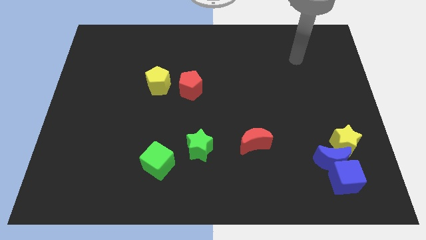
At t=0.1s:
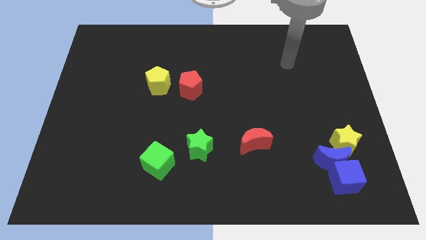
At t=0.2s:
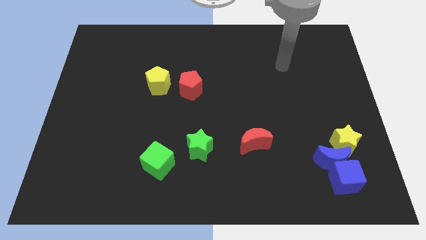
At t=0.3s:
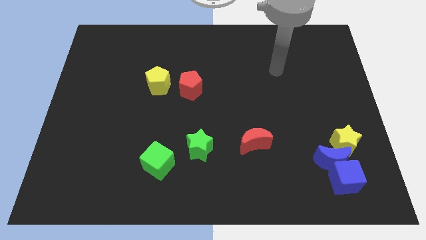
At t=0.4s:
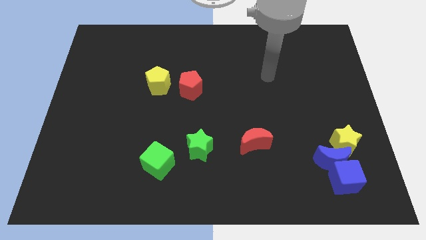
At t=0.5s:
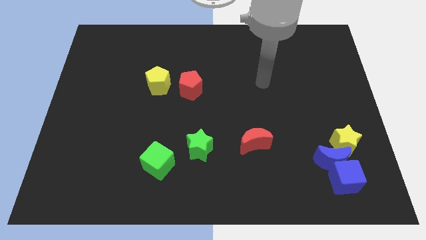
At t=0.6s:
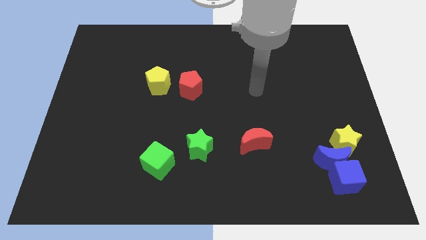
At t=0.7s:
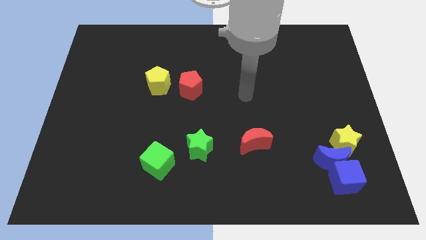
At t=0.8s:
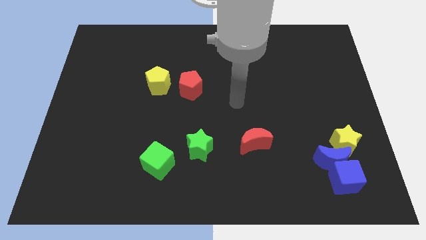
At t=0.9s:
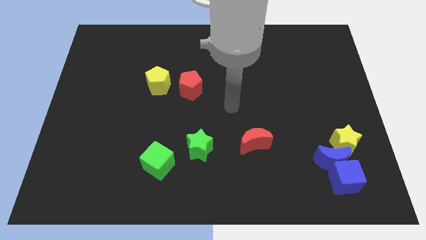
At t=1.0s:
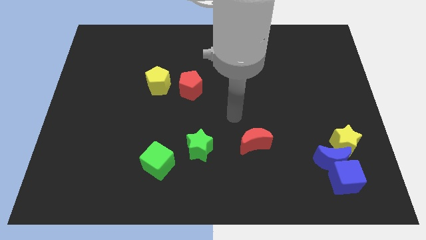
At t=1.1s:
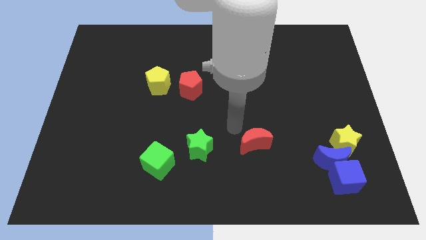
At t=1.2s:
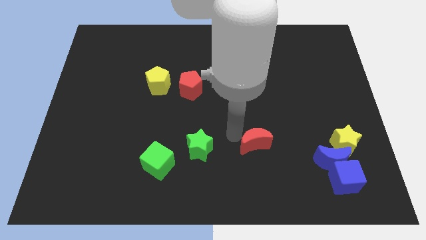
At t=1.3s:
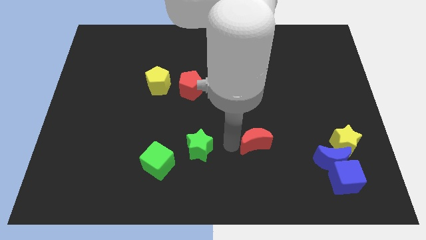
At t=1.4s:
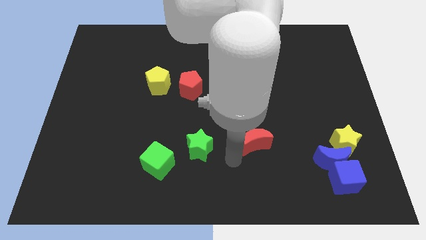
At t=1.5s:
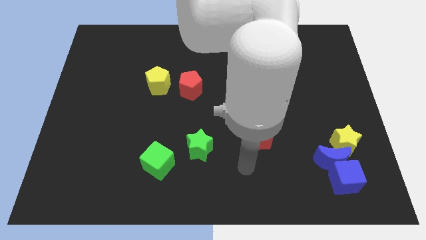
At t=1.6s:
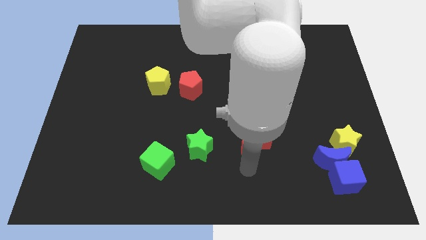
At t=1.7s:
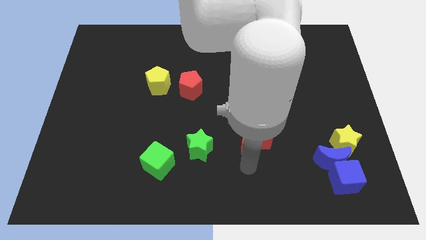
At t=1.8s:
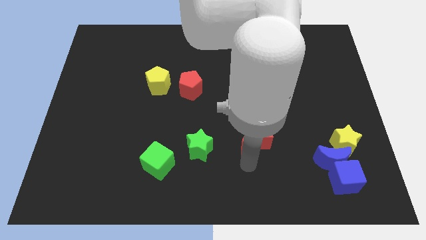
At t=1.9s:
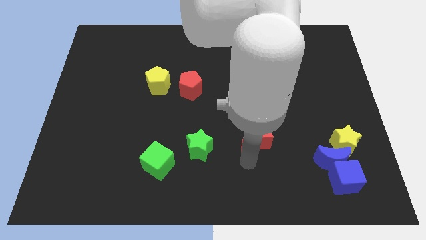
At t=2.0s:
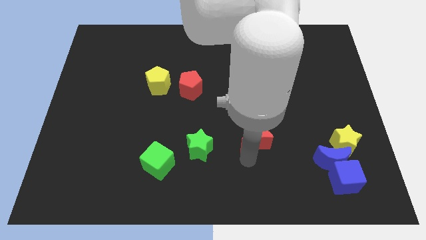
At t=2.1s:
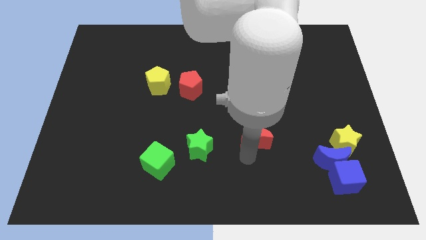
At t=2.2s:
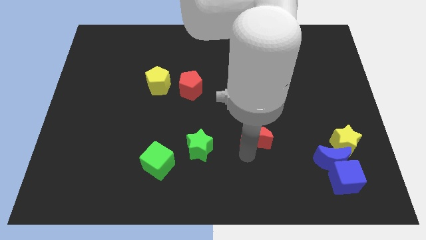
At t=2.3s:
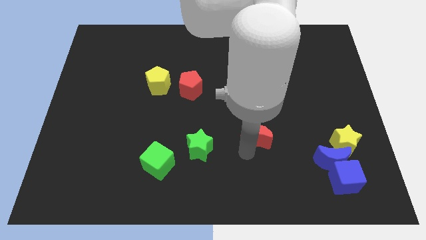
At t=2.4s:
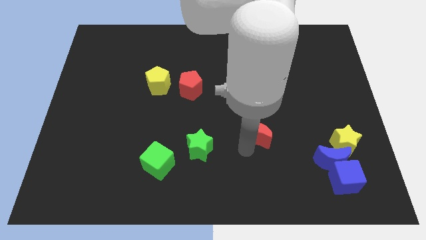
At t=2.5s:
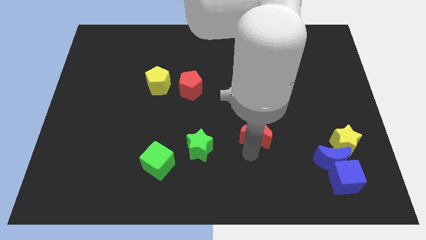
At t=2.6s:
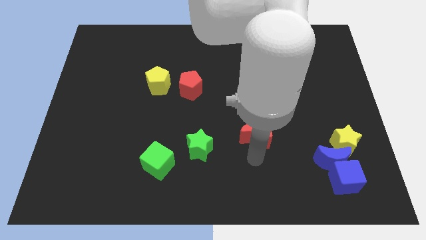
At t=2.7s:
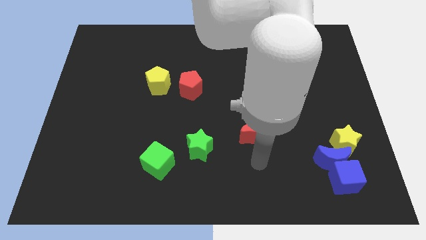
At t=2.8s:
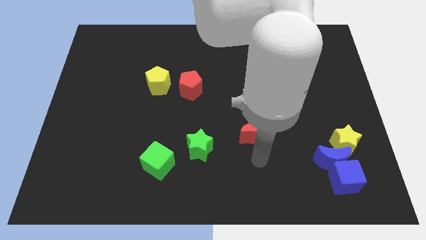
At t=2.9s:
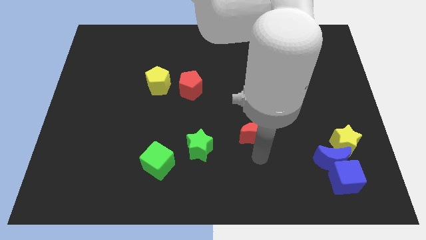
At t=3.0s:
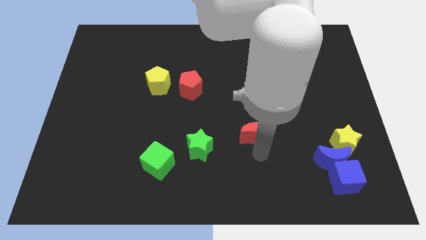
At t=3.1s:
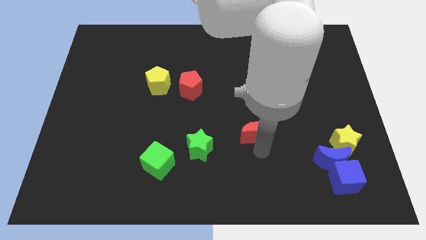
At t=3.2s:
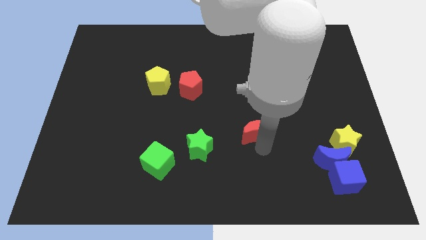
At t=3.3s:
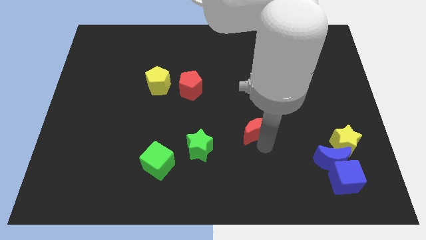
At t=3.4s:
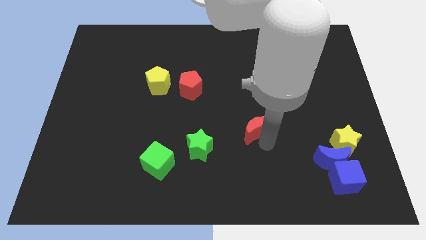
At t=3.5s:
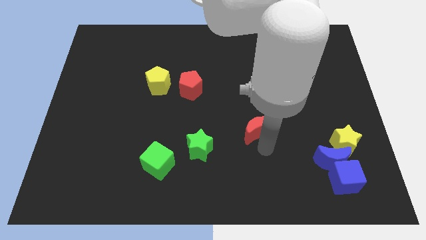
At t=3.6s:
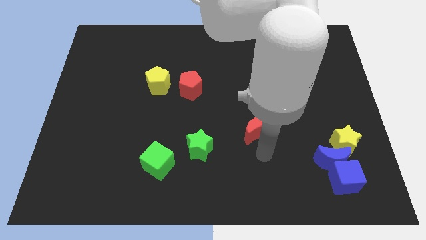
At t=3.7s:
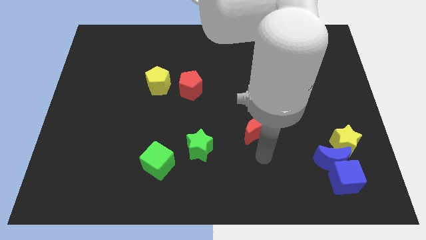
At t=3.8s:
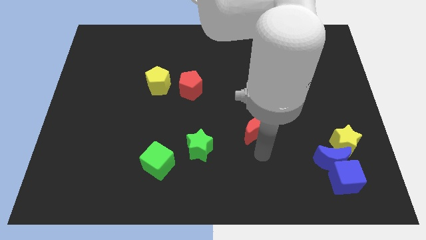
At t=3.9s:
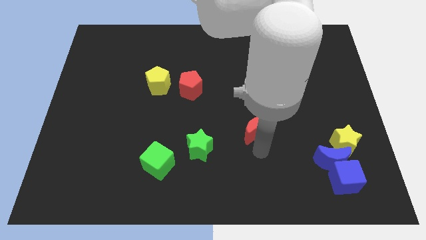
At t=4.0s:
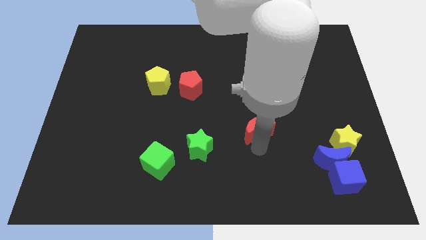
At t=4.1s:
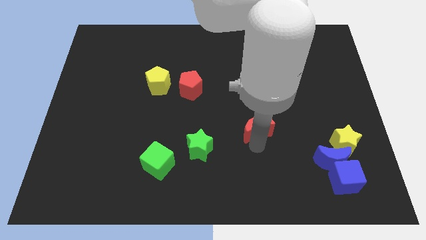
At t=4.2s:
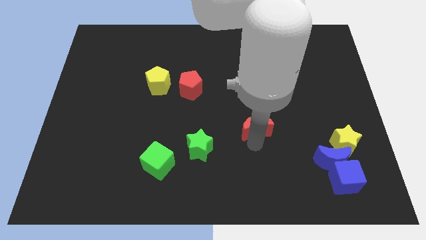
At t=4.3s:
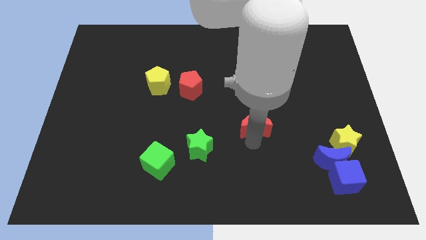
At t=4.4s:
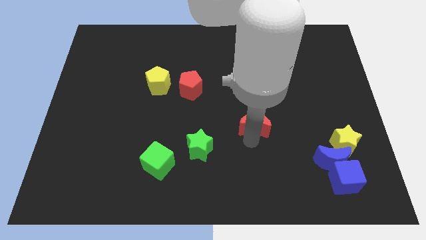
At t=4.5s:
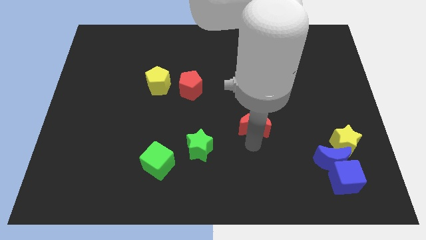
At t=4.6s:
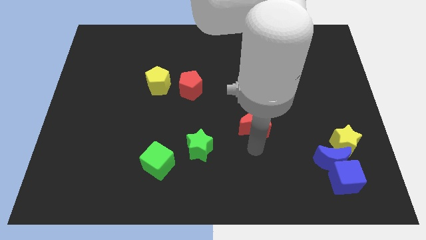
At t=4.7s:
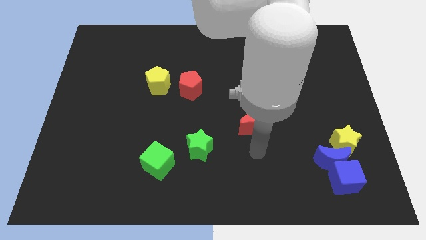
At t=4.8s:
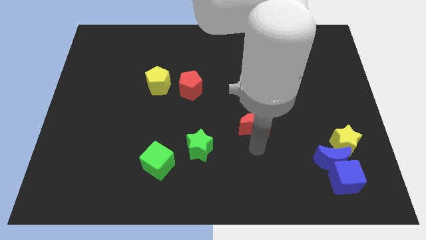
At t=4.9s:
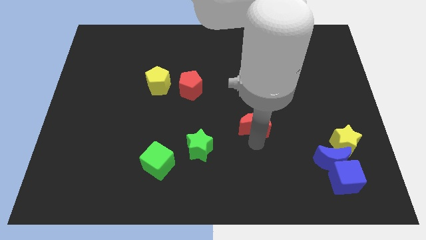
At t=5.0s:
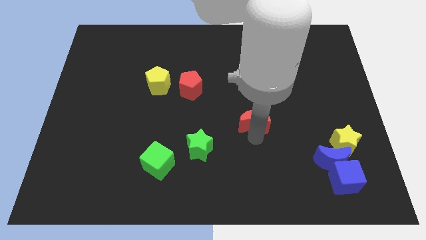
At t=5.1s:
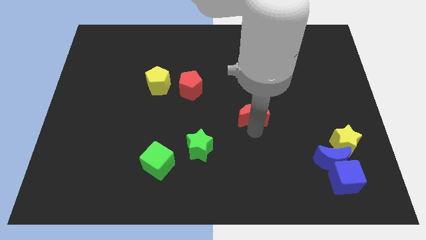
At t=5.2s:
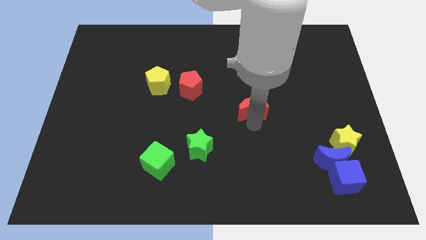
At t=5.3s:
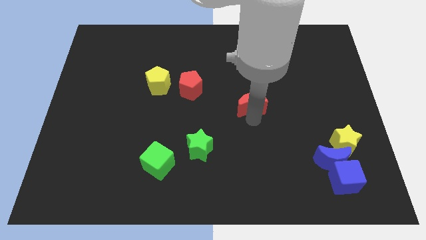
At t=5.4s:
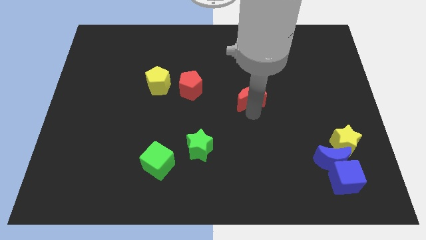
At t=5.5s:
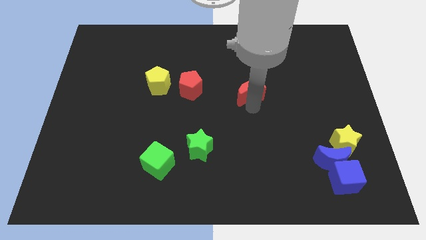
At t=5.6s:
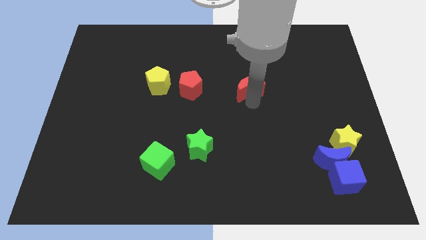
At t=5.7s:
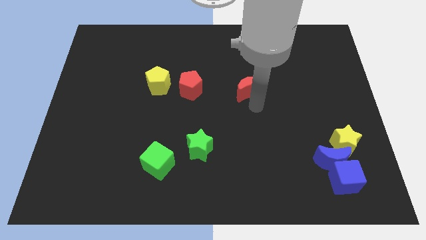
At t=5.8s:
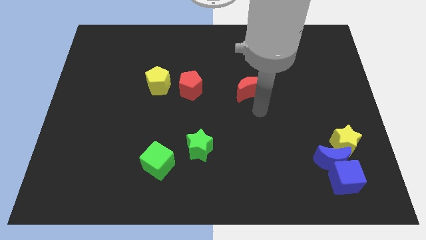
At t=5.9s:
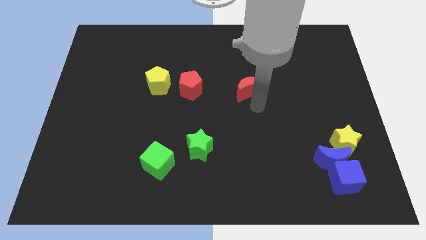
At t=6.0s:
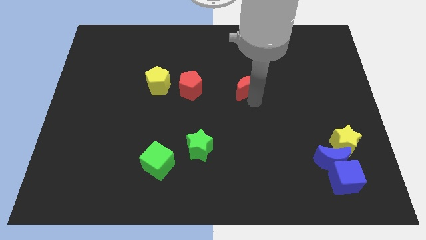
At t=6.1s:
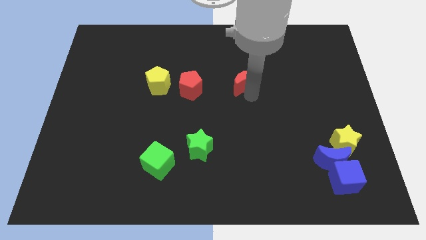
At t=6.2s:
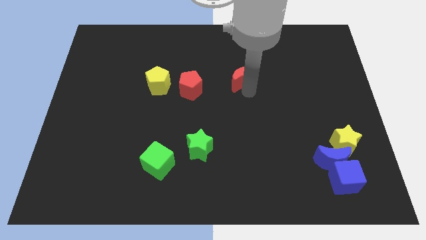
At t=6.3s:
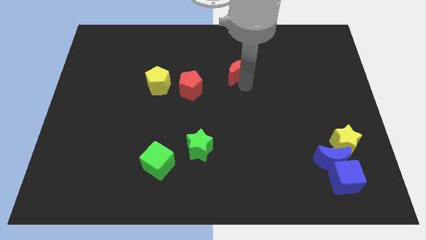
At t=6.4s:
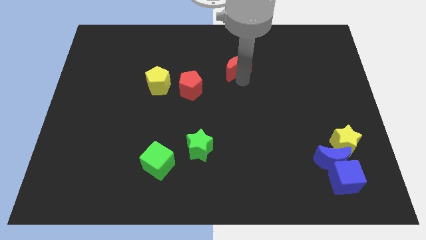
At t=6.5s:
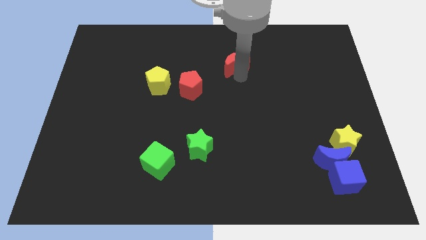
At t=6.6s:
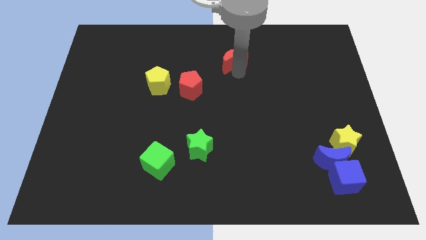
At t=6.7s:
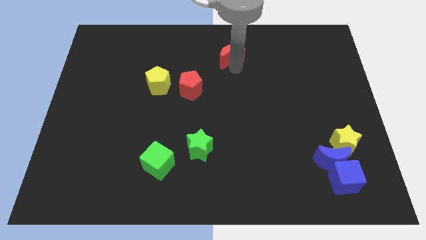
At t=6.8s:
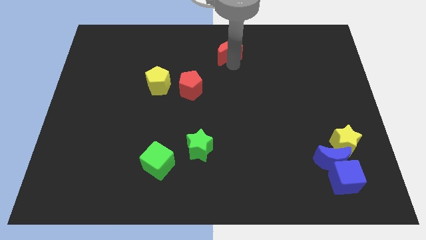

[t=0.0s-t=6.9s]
slide the red moon to the towards your base
